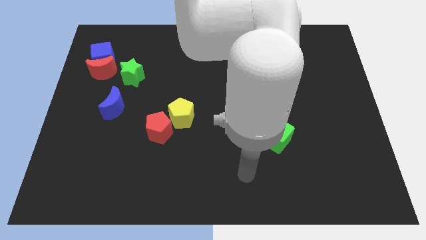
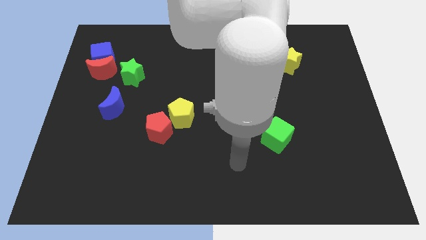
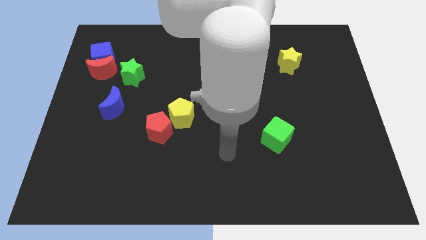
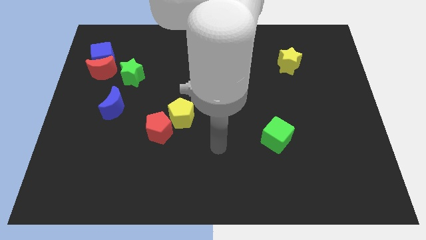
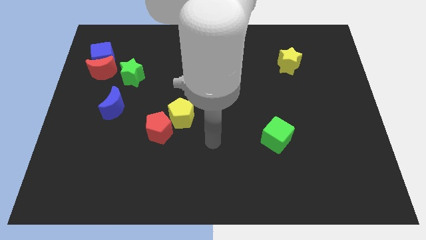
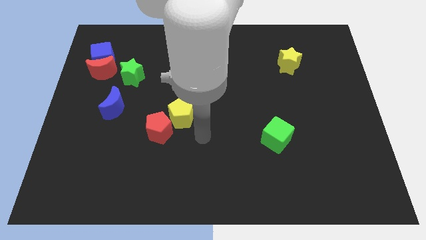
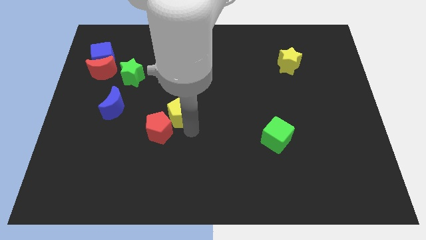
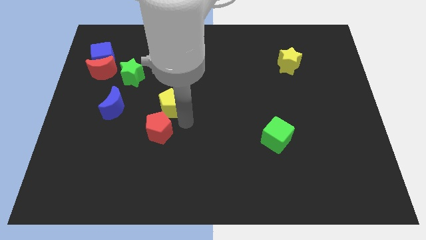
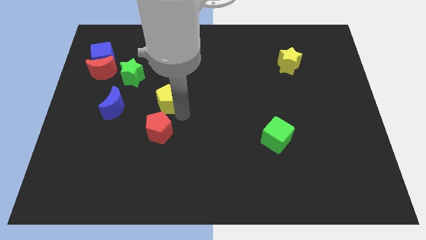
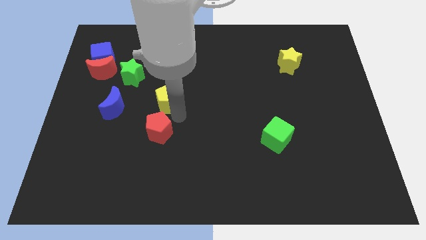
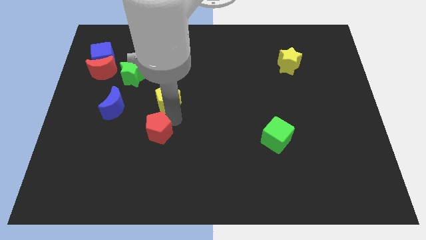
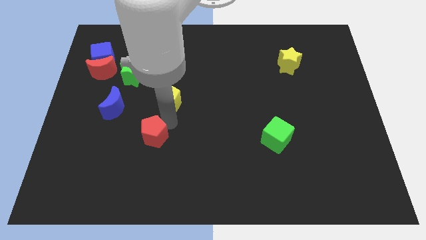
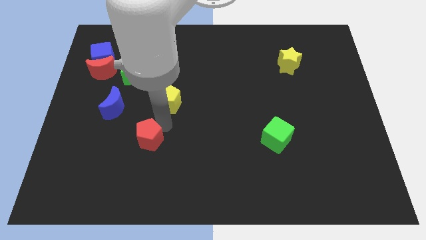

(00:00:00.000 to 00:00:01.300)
pull the red pentagon apart from the yellow pentagon

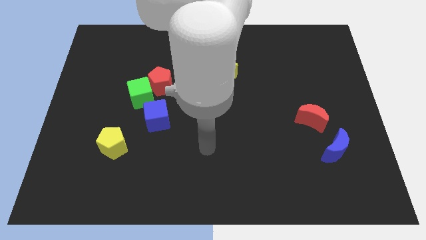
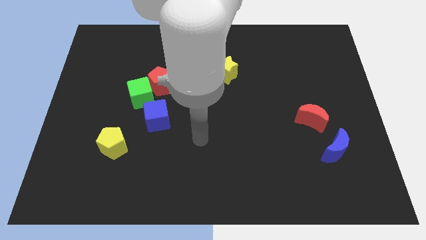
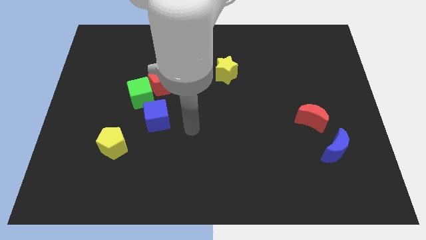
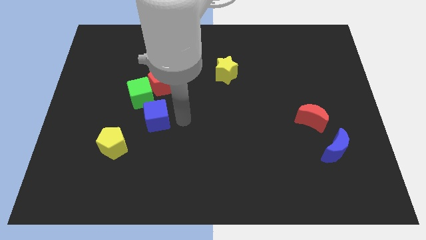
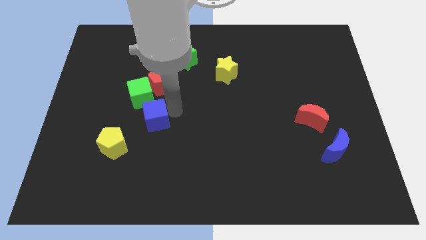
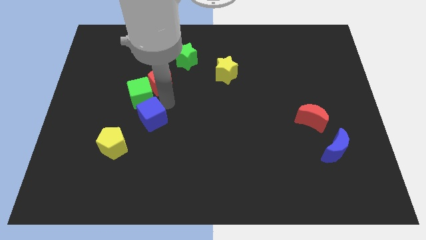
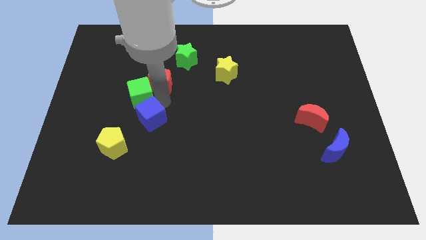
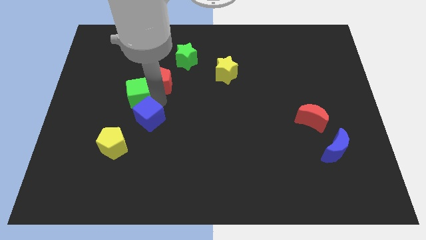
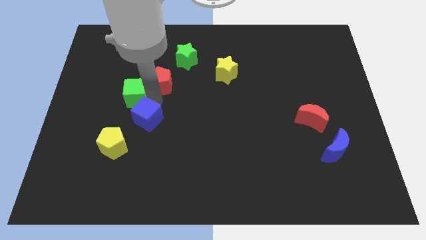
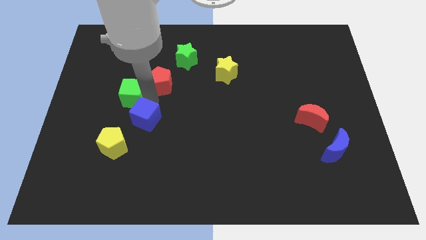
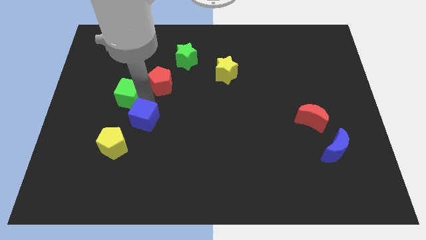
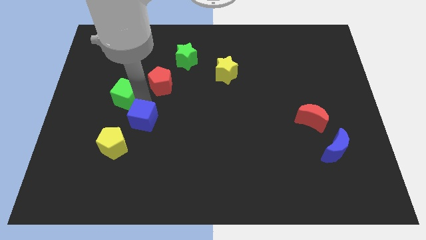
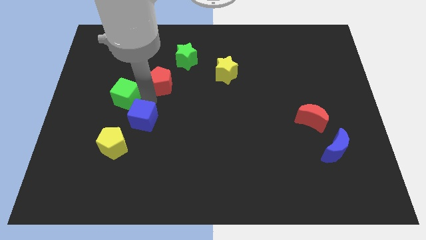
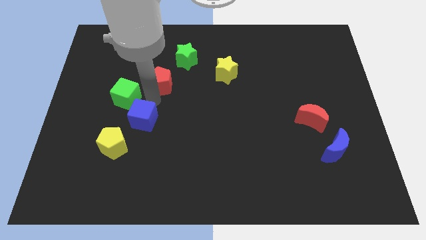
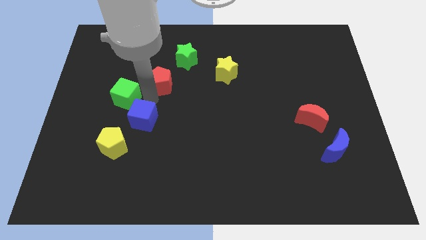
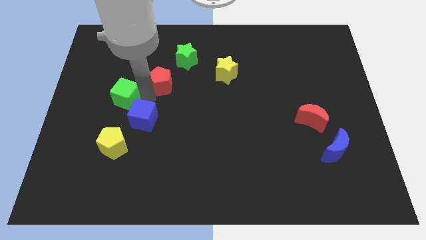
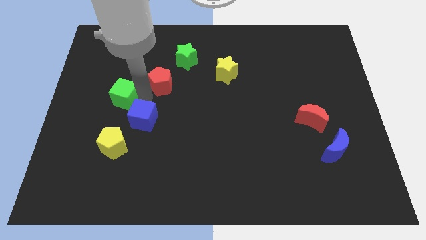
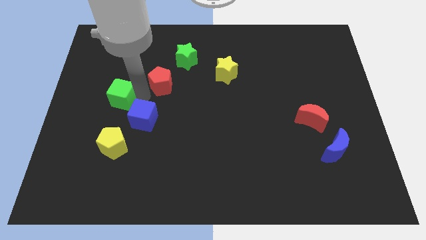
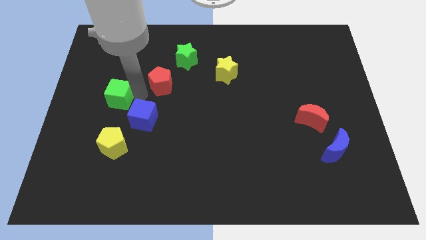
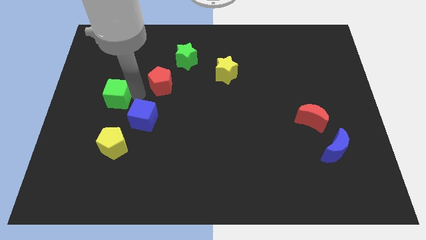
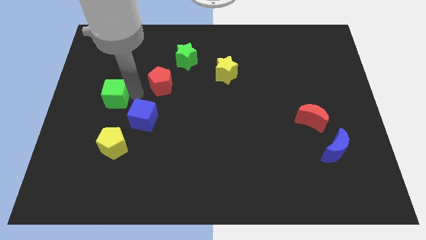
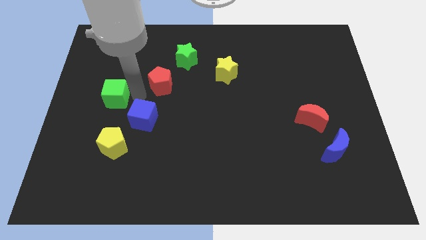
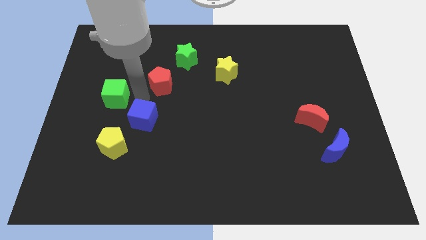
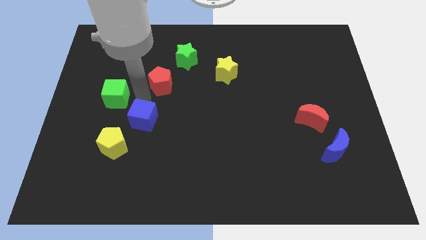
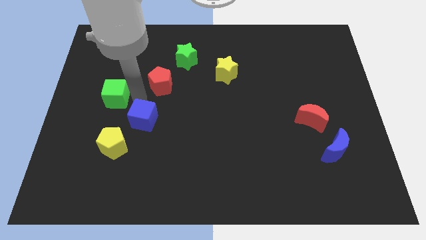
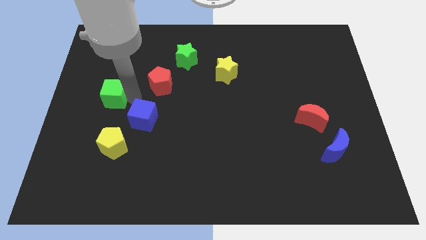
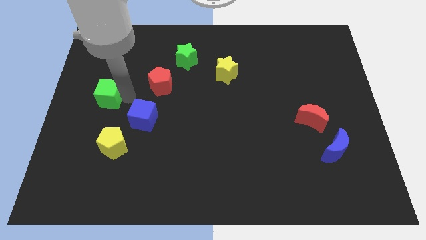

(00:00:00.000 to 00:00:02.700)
pull the green cube apart from the red pentagon and blue cube

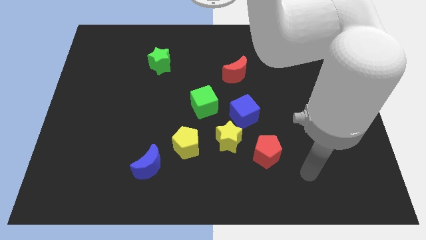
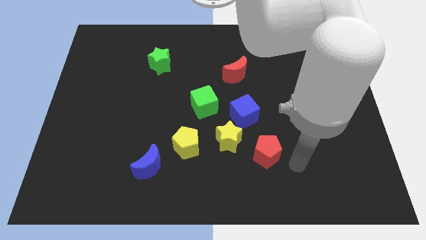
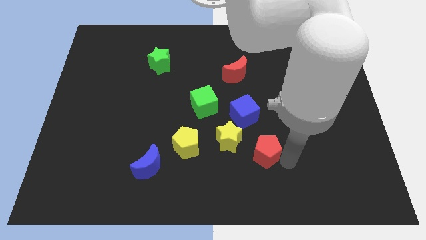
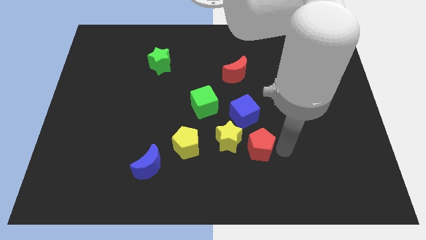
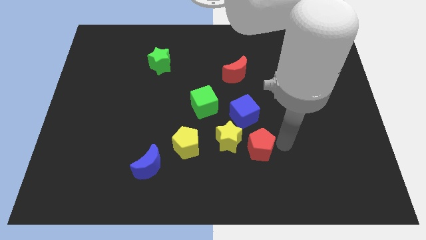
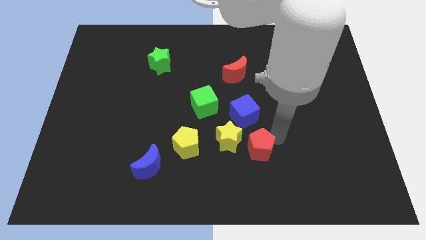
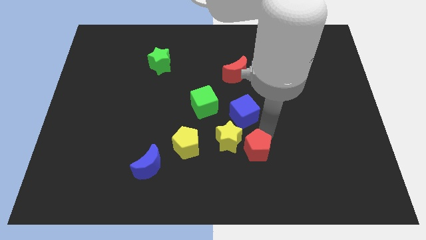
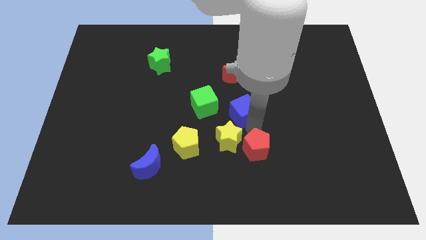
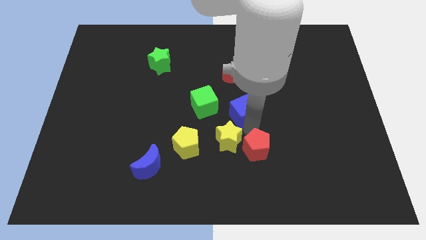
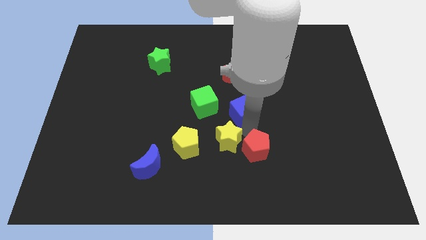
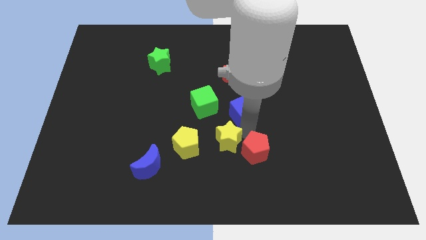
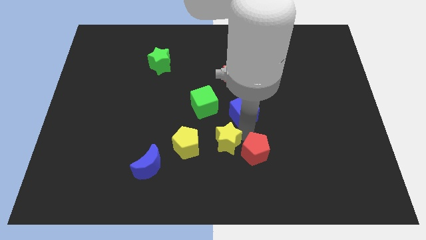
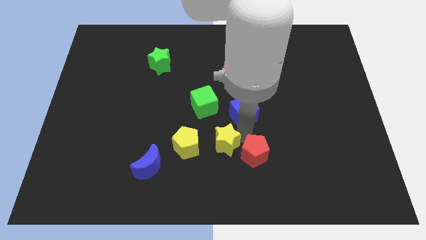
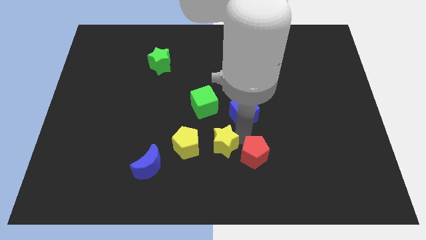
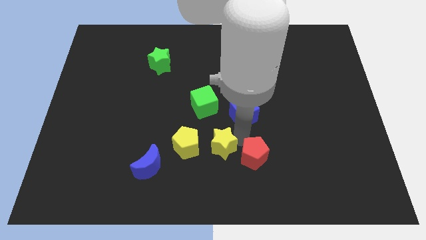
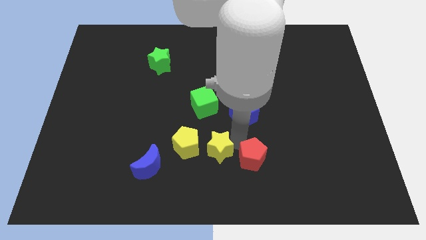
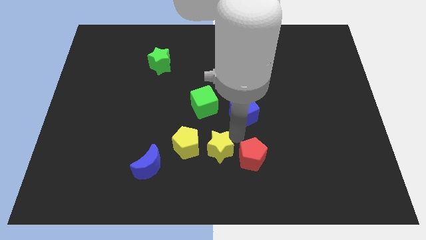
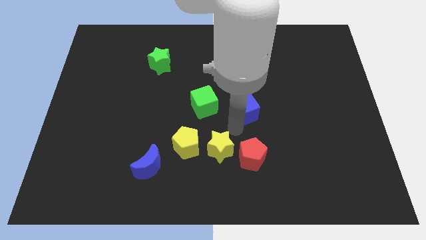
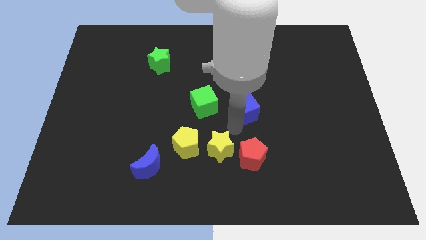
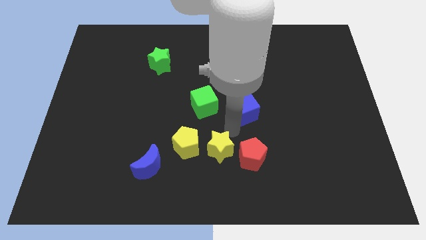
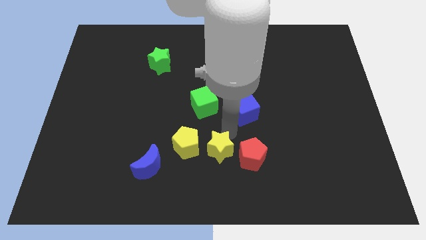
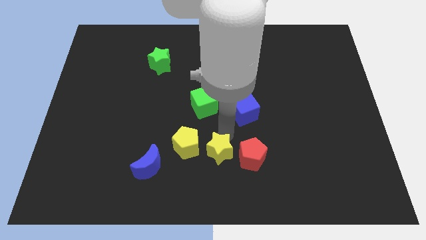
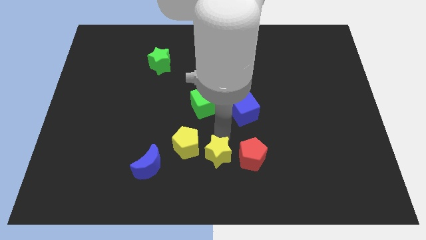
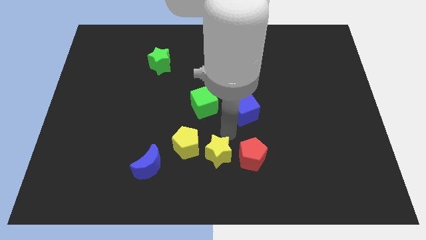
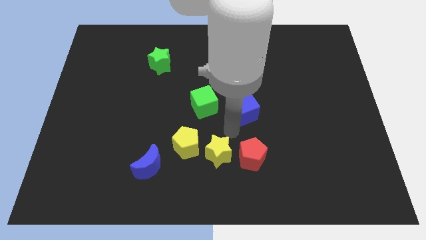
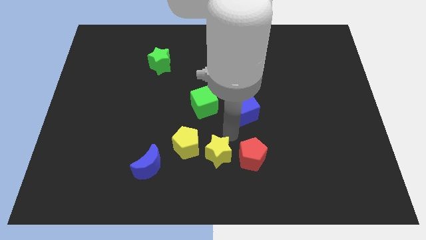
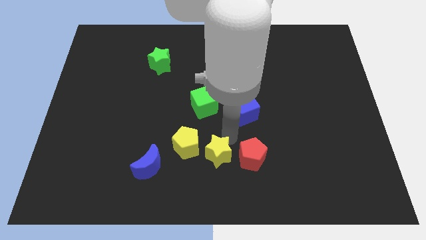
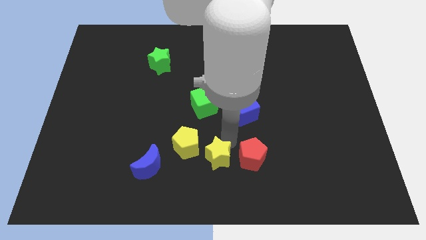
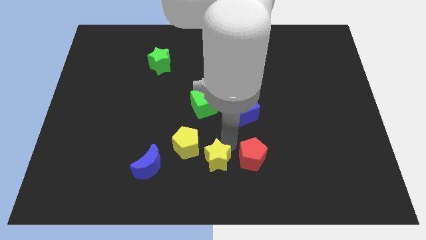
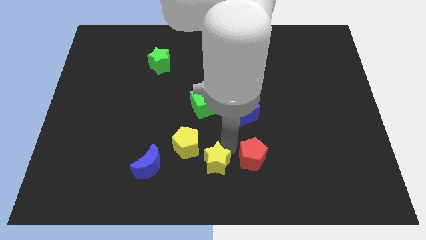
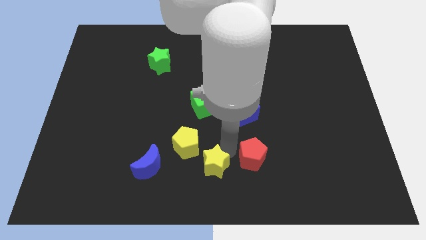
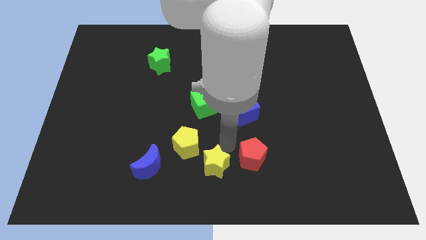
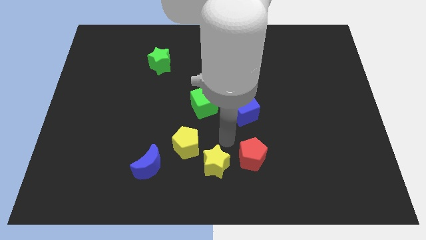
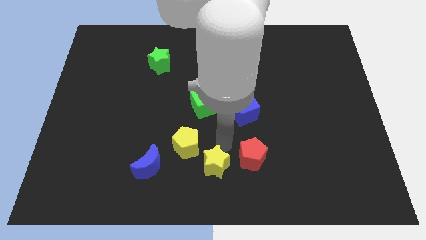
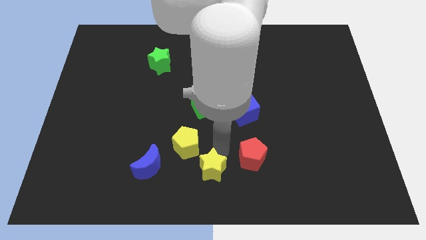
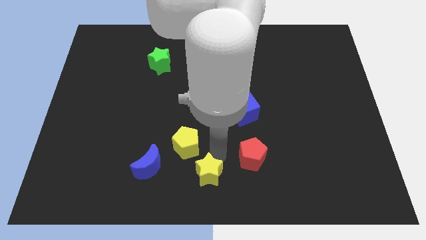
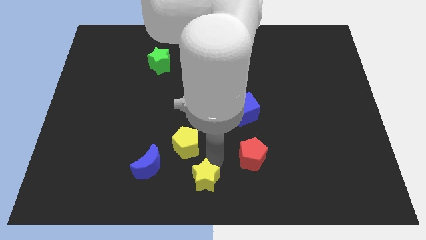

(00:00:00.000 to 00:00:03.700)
separate the yellow star from the group of blocks

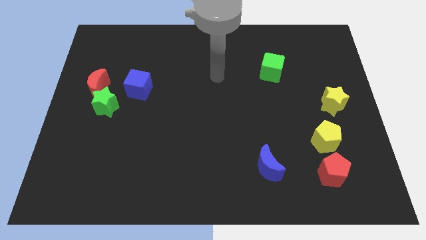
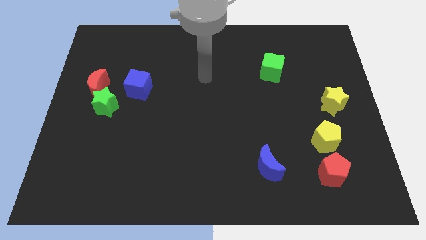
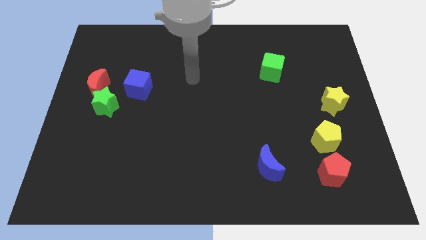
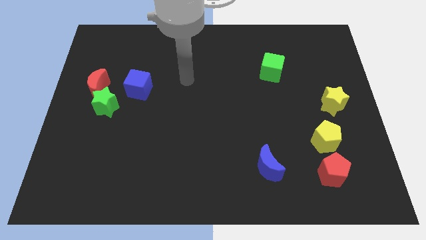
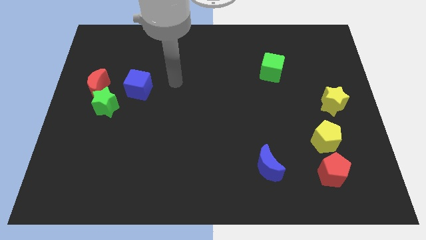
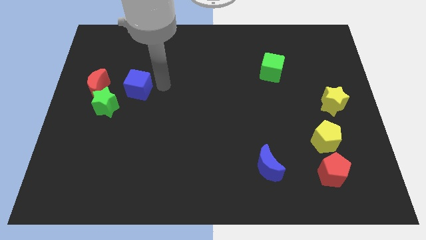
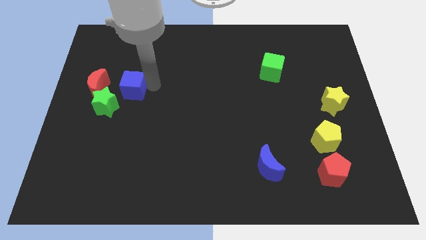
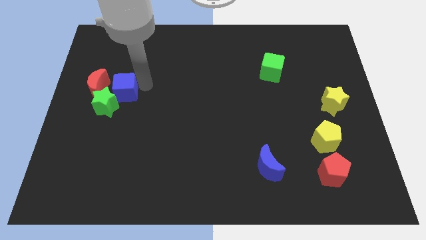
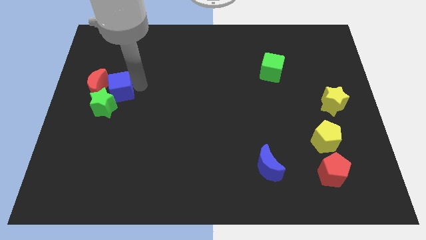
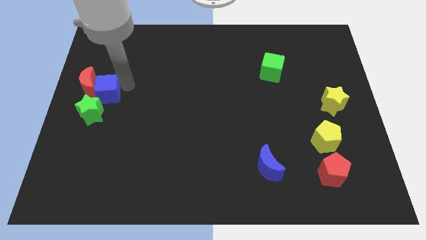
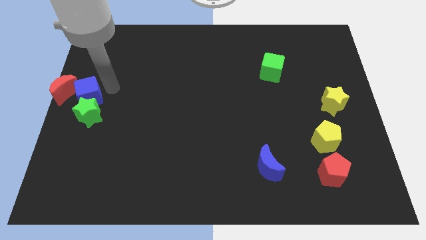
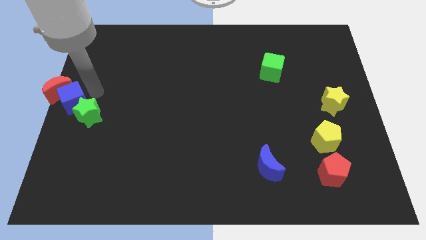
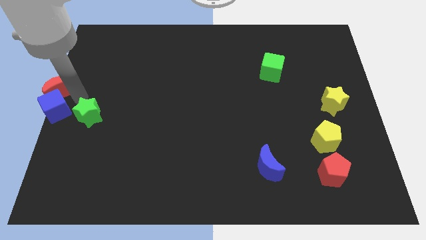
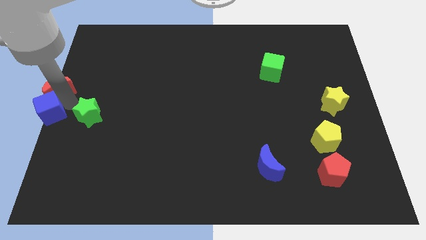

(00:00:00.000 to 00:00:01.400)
pull the green star apart from the red moon and blue cube

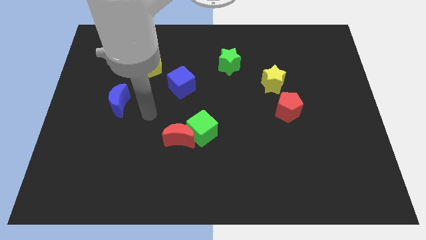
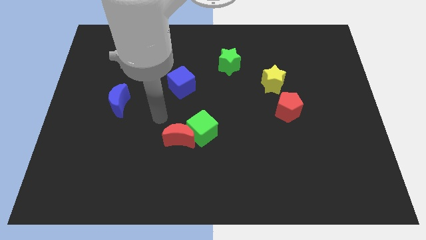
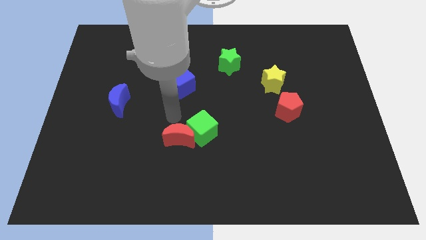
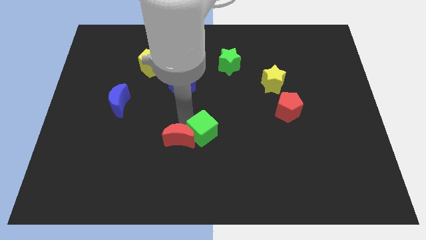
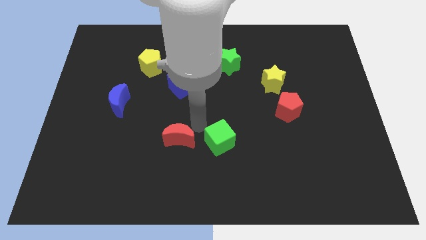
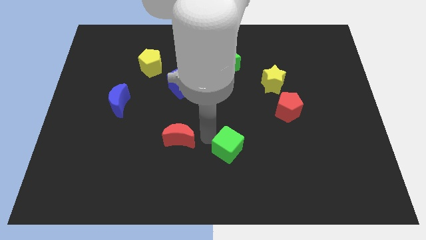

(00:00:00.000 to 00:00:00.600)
pull the red moon apart from the green cube
